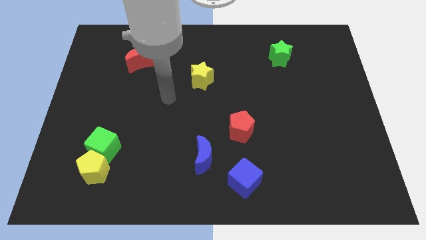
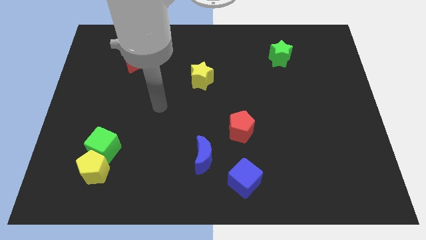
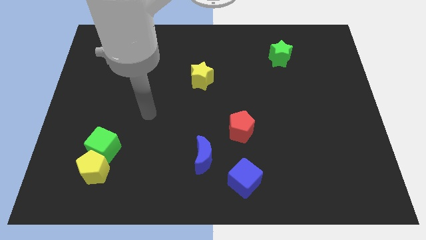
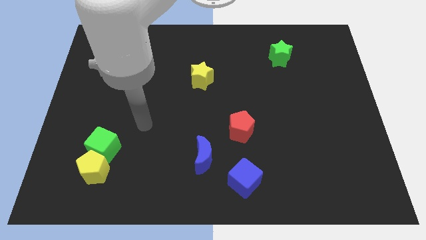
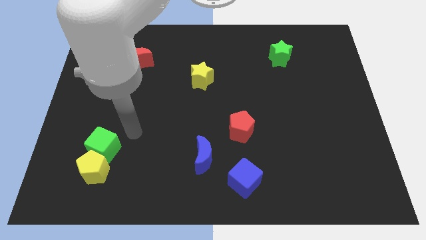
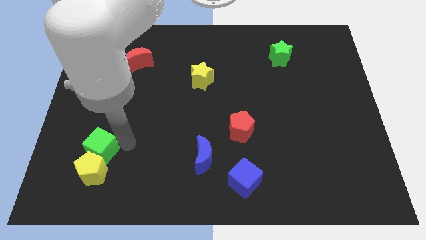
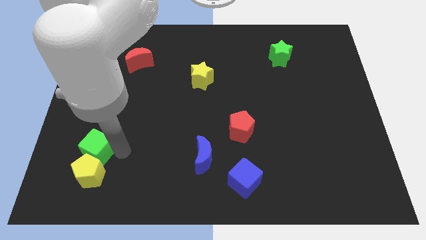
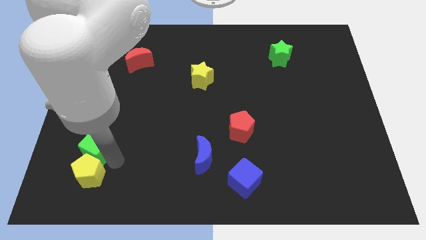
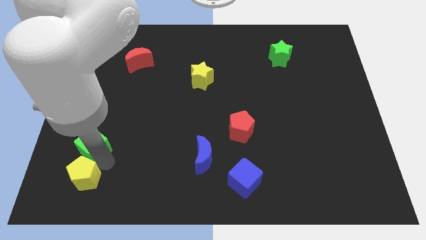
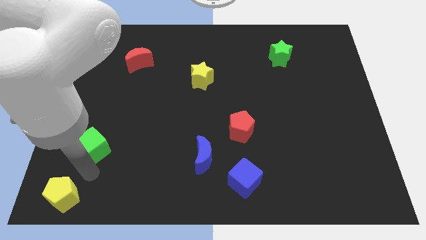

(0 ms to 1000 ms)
separate the green cube from the yellow pentagon

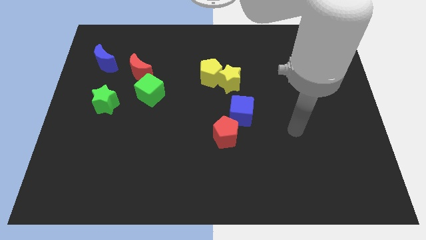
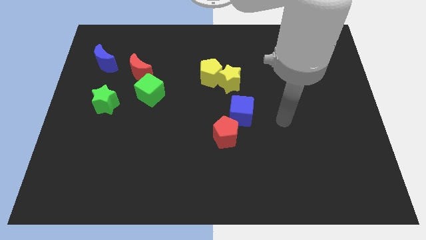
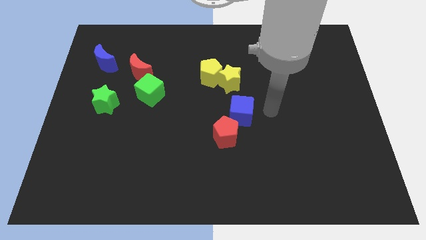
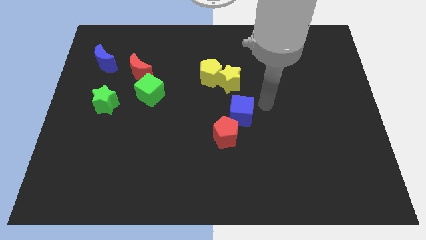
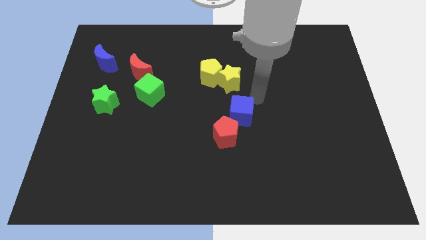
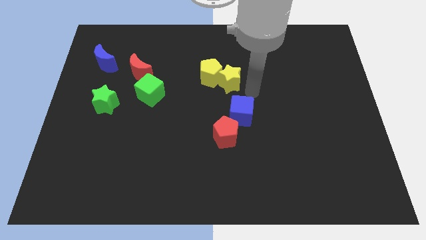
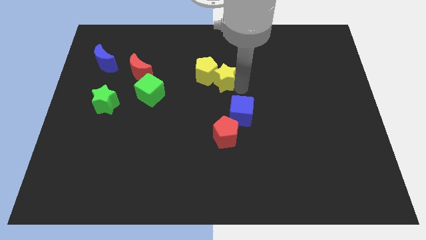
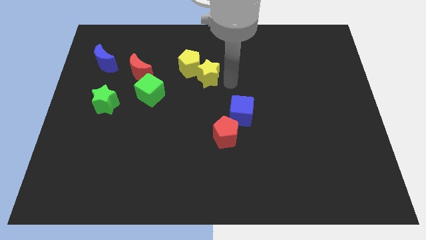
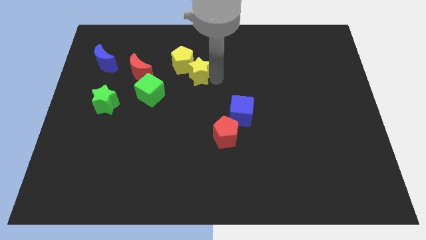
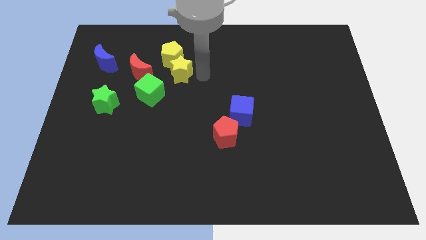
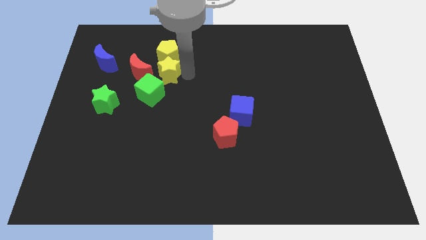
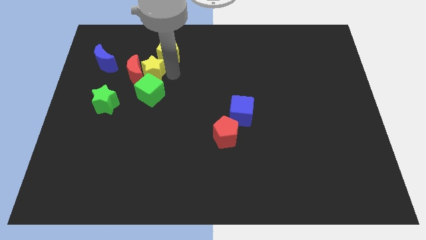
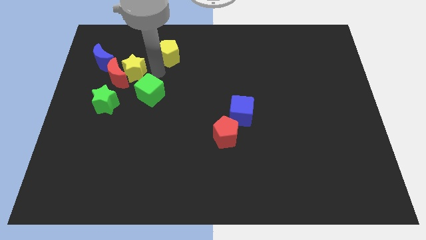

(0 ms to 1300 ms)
separate the yellow pentagon from the yellow star

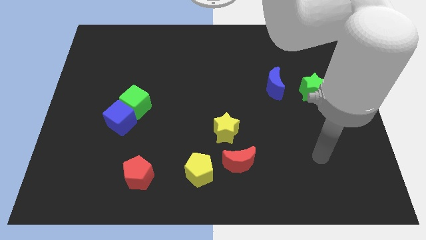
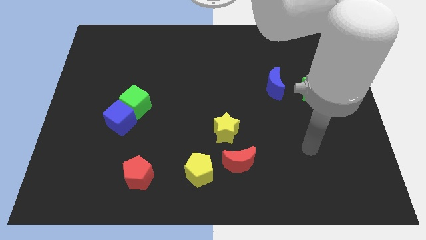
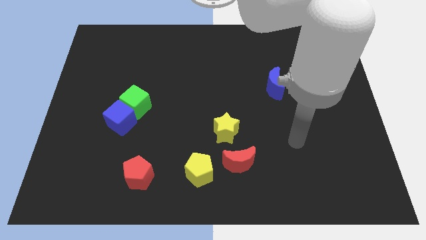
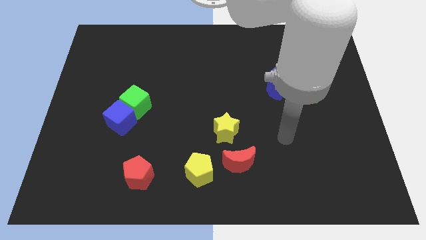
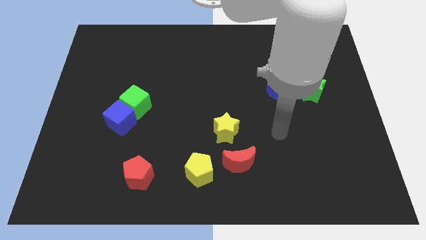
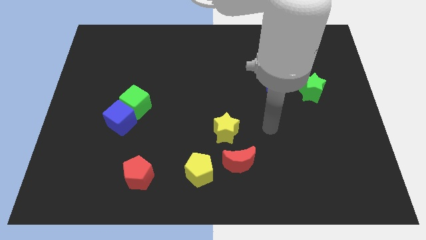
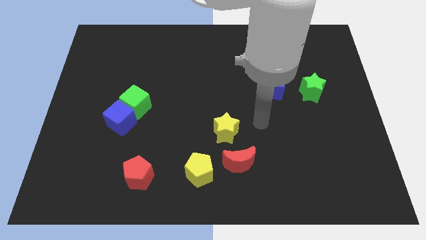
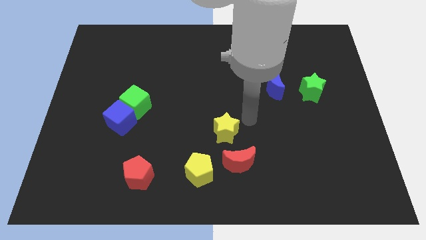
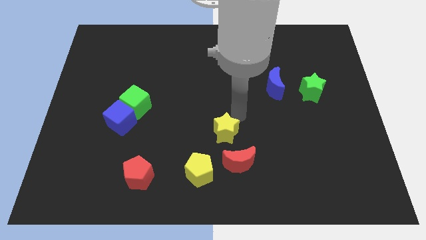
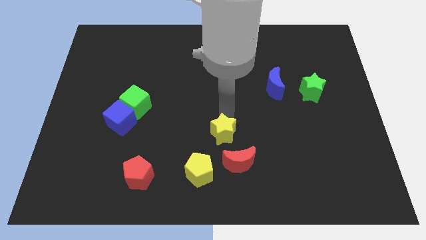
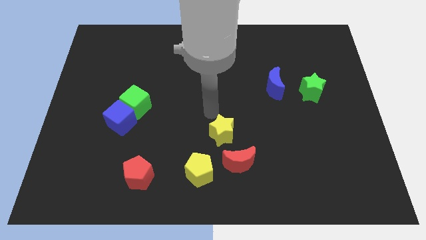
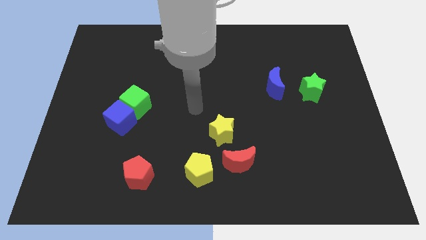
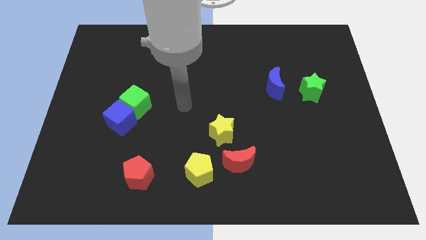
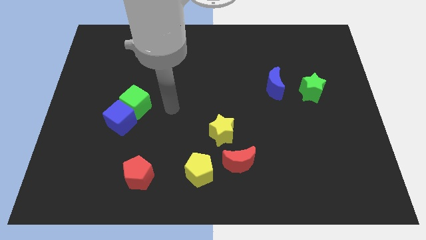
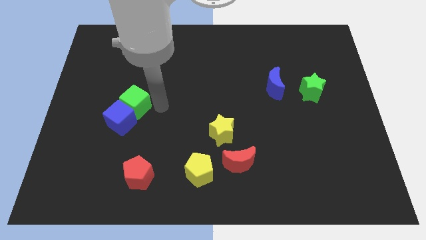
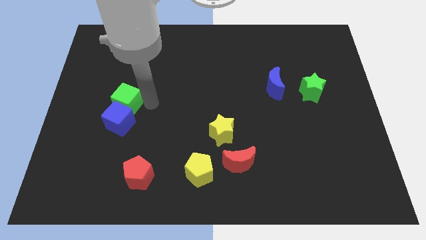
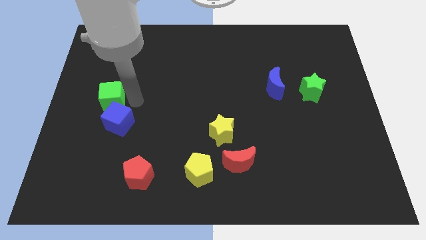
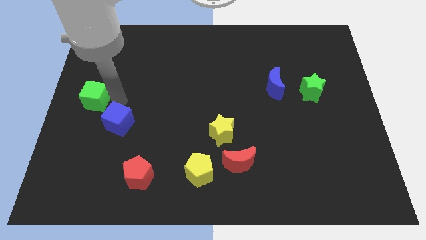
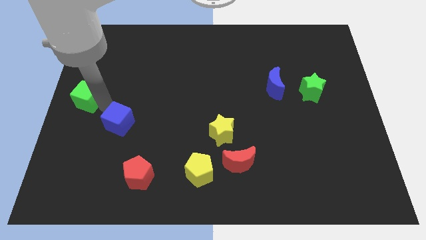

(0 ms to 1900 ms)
move the blue cube away from the green cube

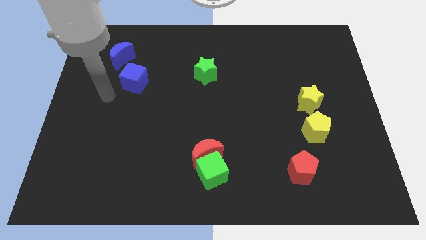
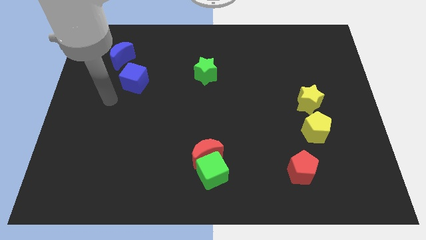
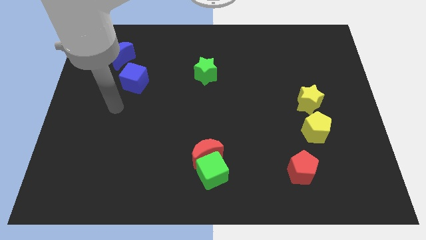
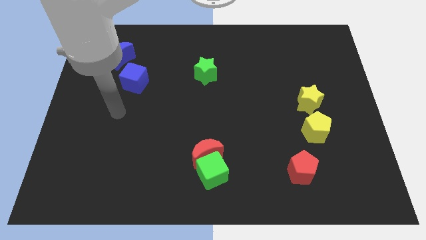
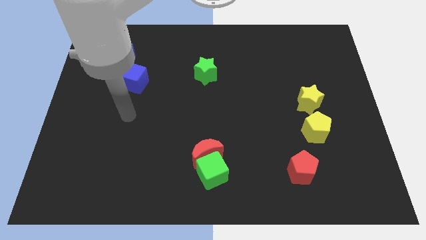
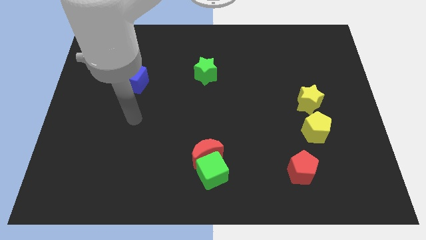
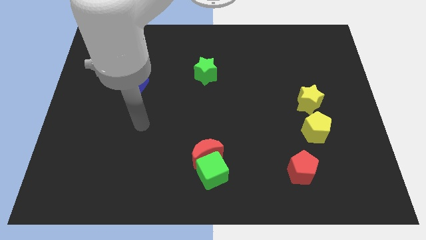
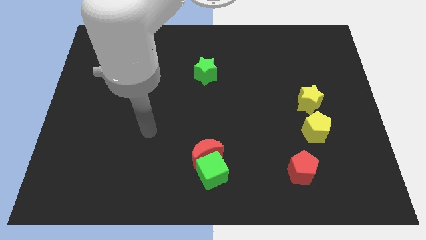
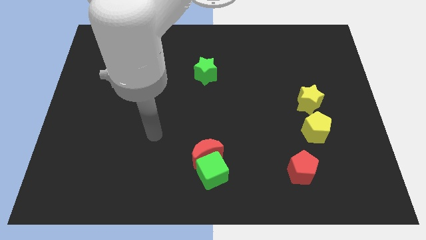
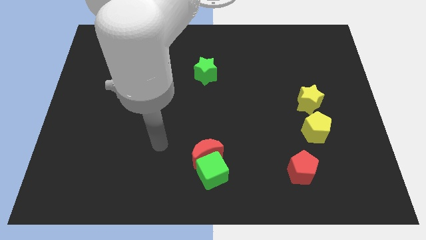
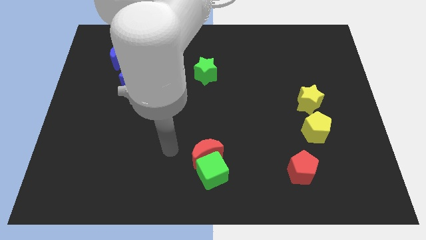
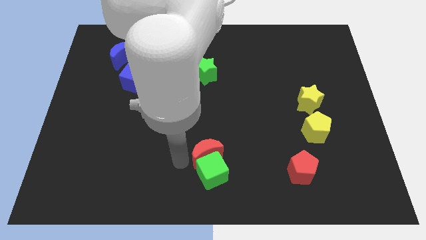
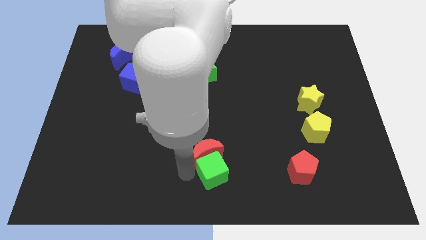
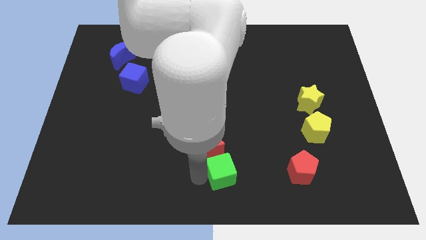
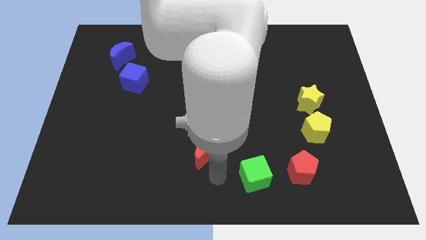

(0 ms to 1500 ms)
move the red moon away from the green cube

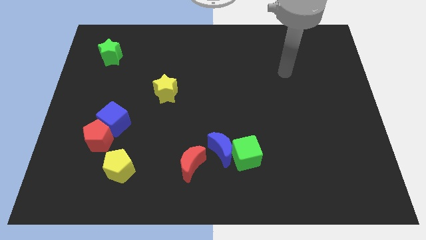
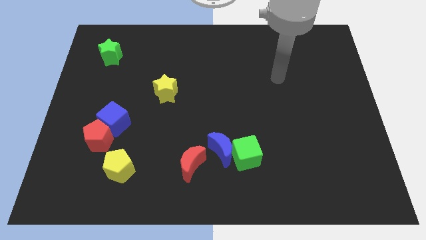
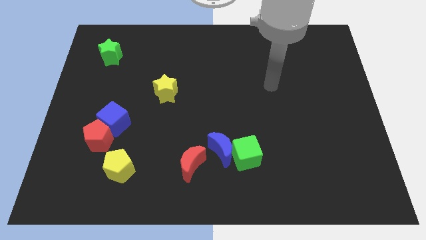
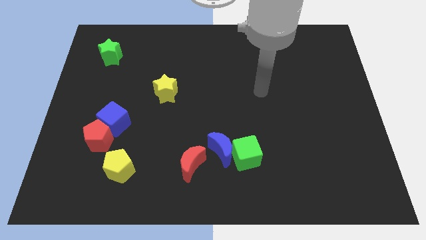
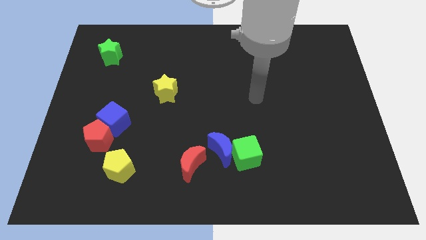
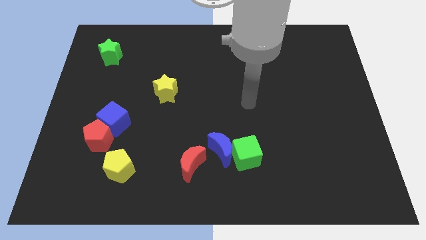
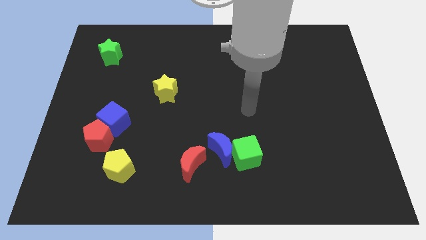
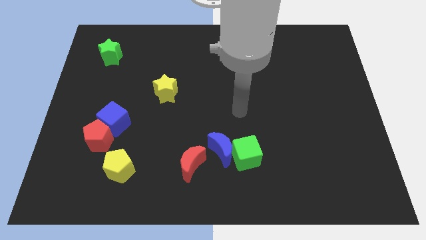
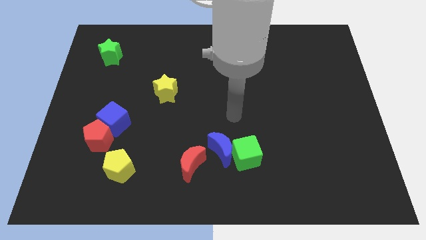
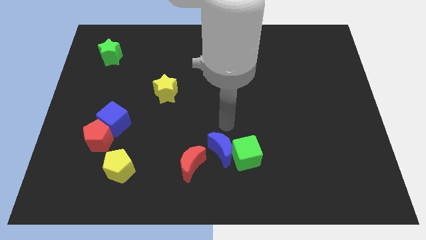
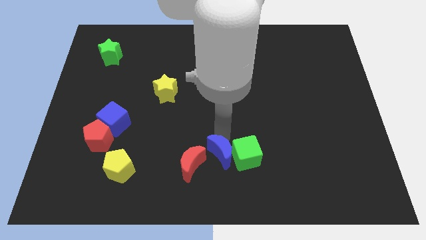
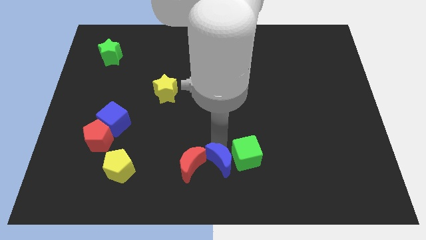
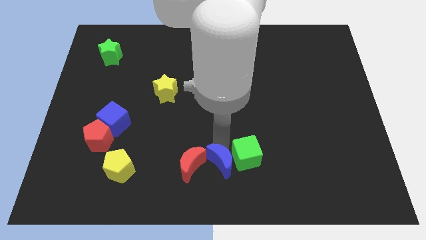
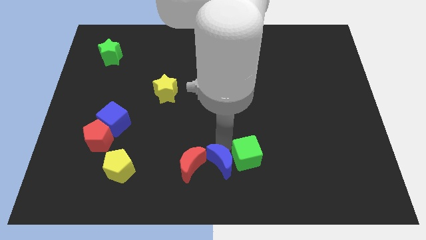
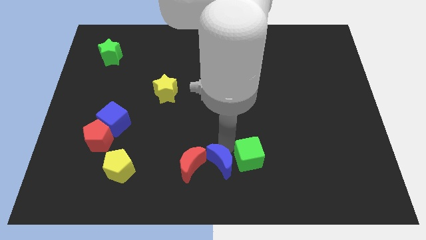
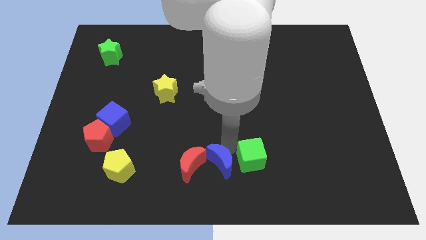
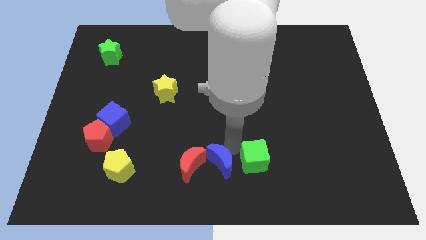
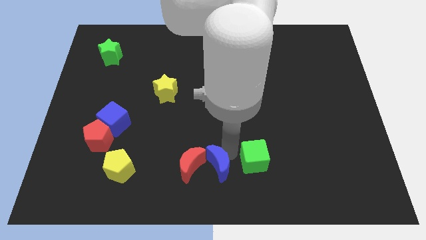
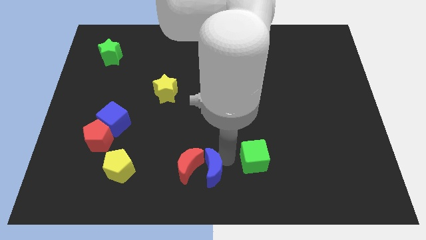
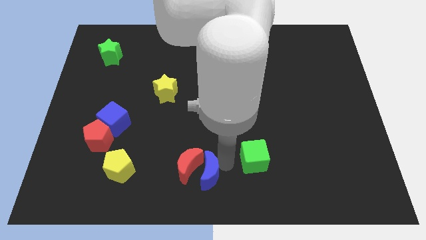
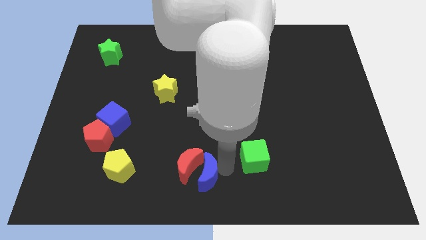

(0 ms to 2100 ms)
pull the green cube apart from the blue moon

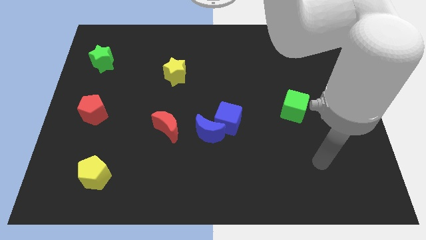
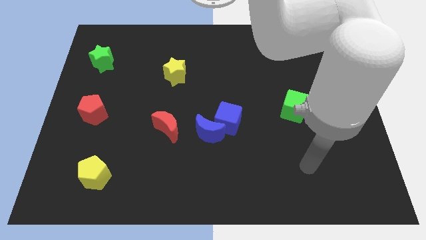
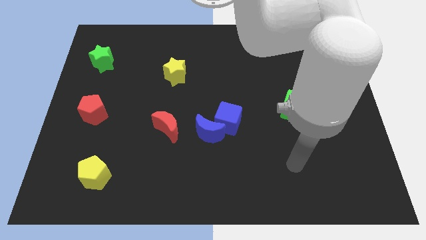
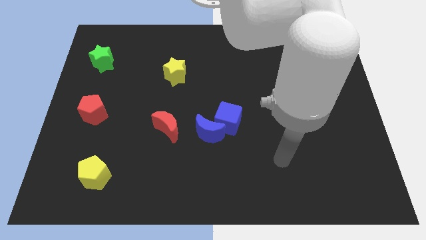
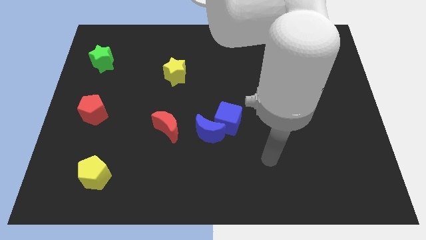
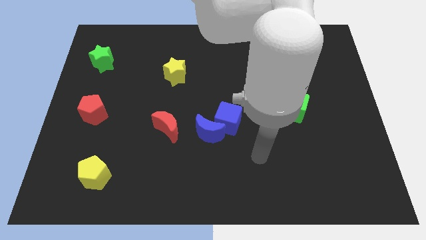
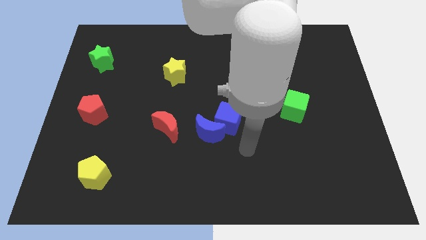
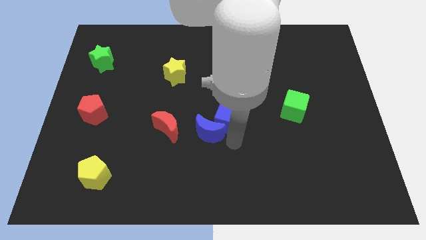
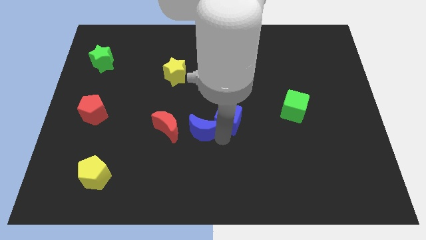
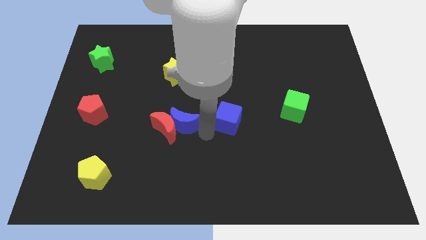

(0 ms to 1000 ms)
move the blue cube away from the blue moon

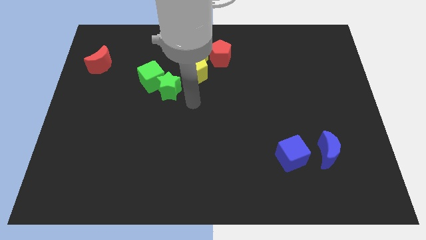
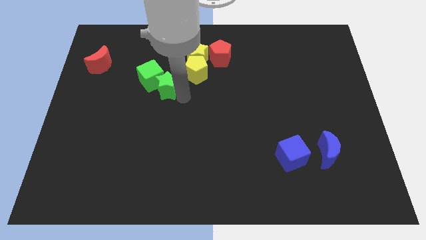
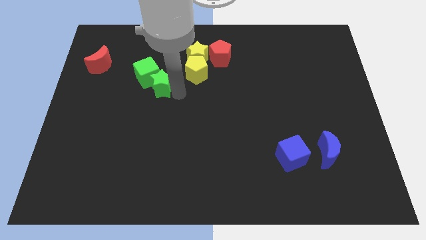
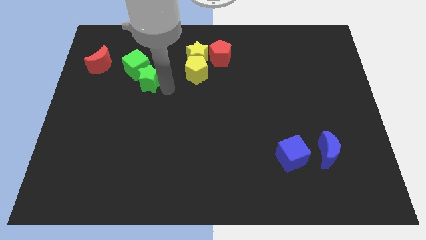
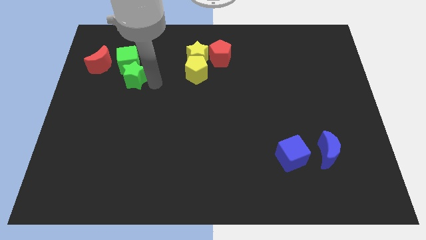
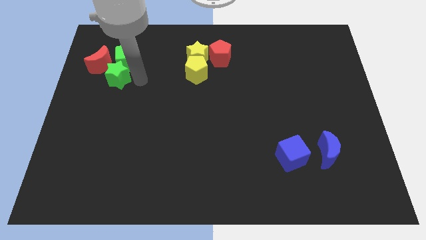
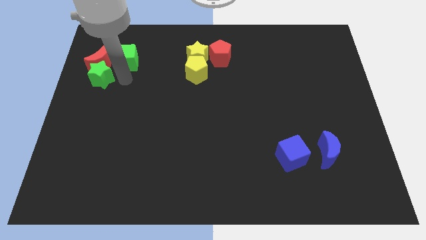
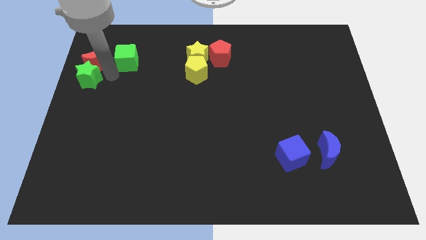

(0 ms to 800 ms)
separate the green cube from the green star
